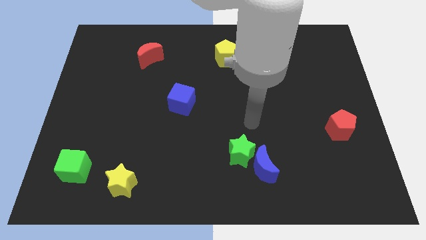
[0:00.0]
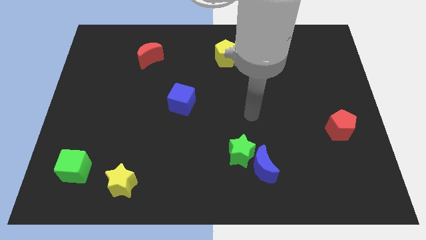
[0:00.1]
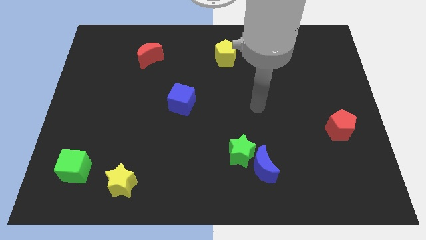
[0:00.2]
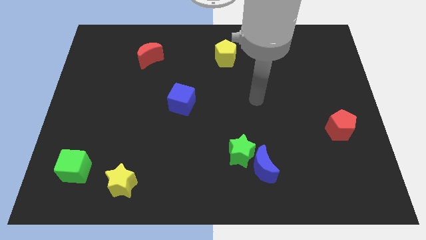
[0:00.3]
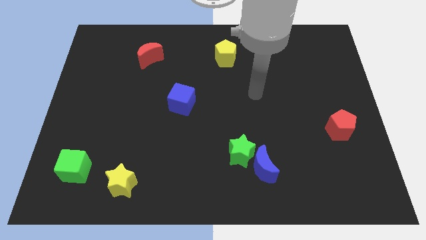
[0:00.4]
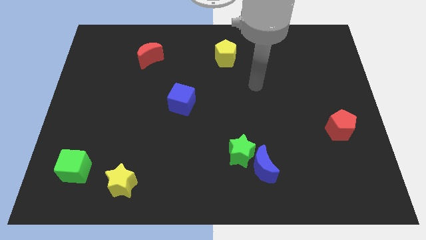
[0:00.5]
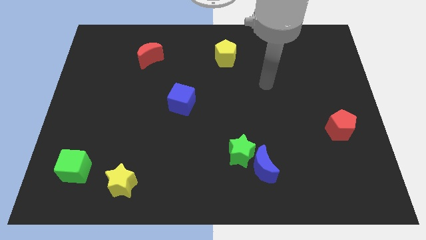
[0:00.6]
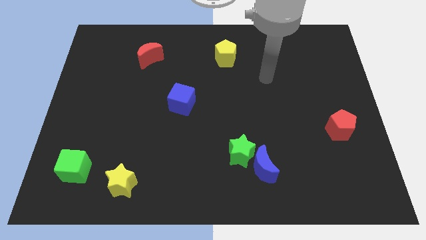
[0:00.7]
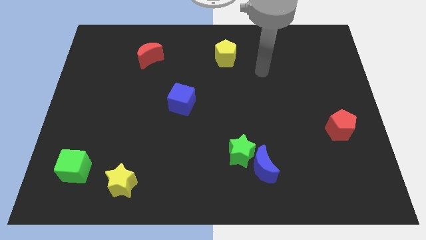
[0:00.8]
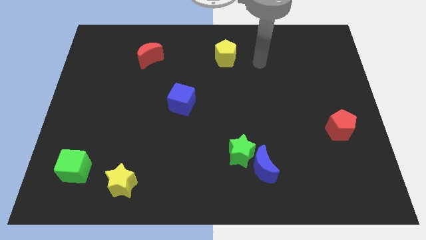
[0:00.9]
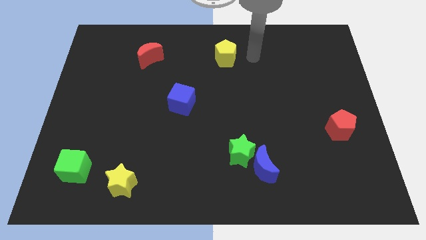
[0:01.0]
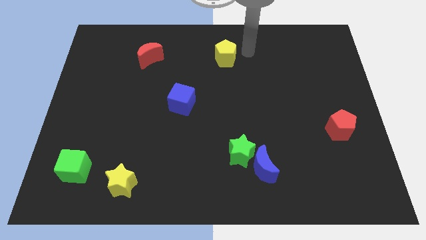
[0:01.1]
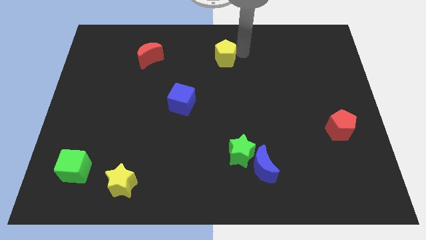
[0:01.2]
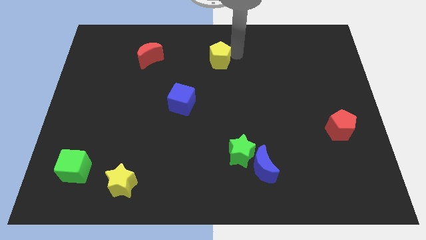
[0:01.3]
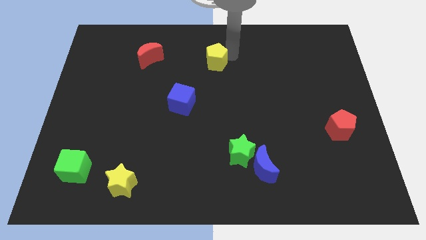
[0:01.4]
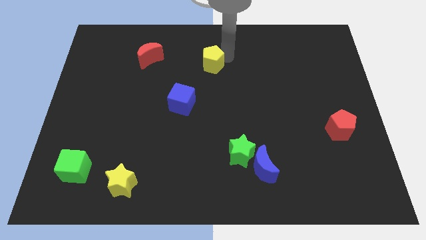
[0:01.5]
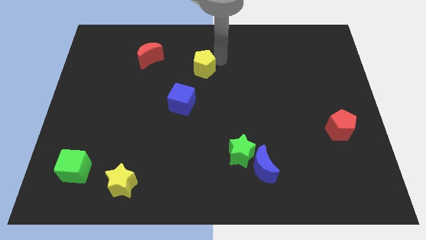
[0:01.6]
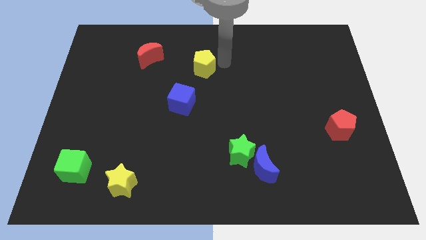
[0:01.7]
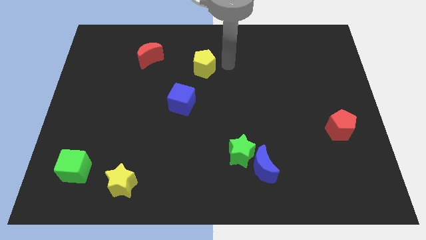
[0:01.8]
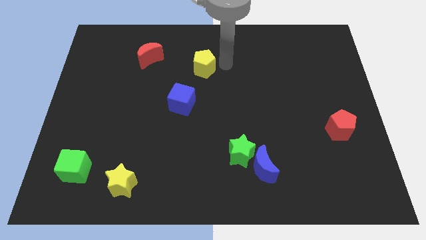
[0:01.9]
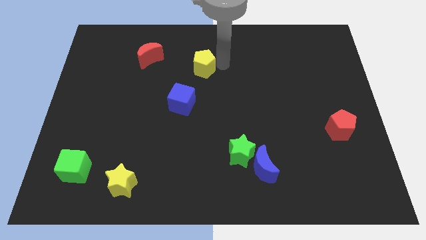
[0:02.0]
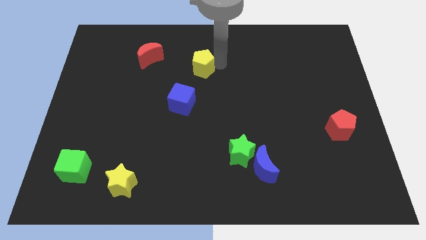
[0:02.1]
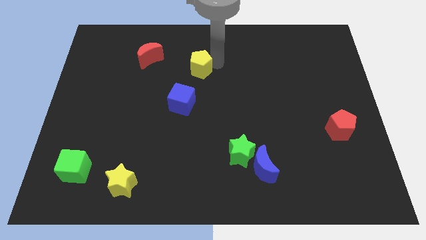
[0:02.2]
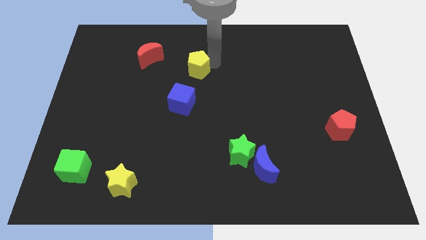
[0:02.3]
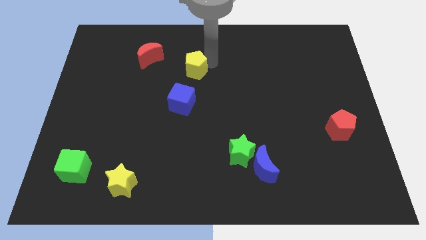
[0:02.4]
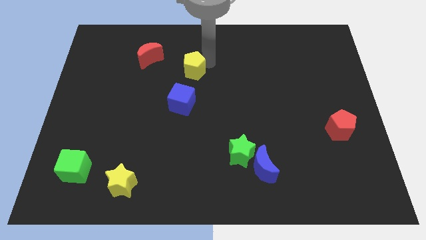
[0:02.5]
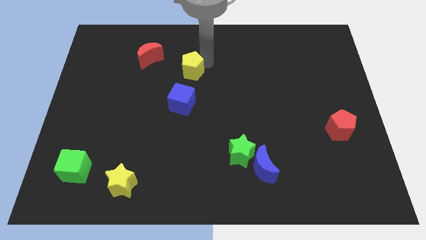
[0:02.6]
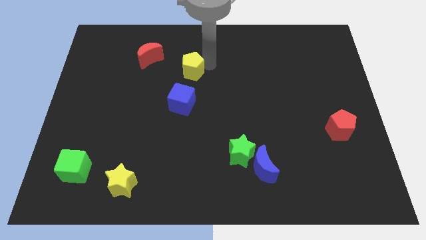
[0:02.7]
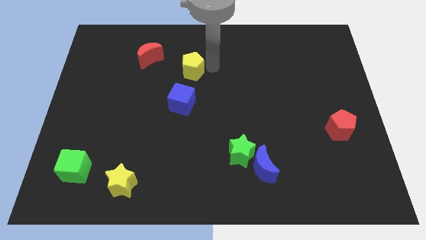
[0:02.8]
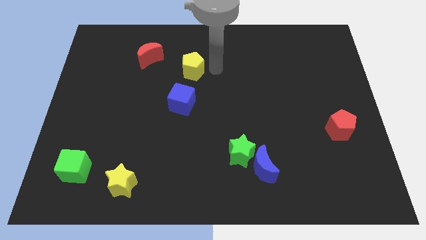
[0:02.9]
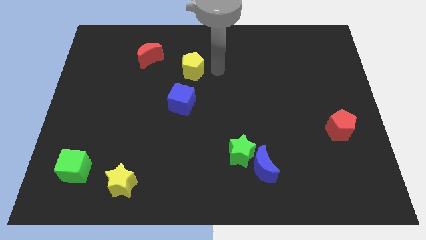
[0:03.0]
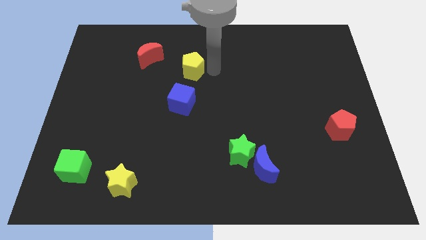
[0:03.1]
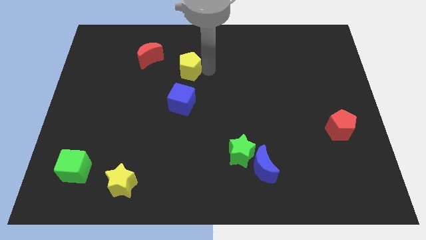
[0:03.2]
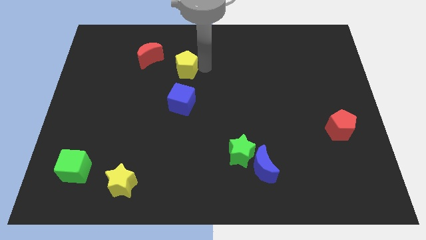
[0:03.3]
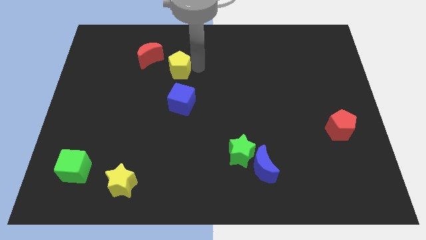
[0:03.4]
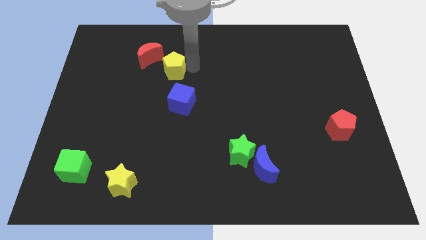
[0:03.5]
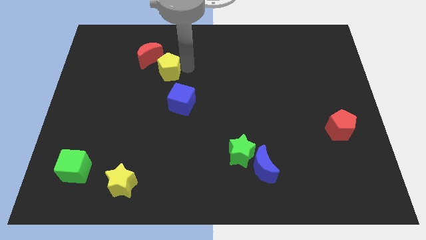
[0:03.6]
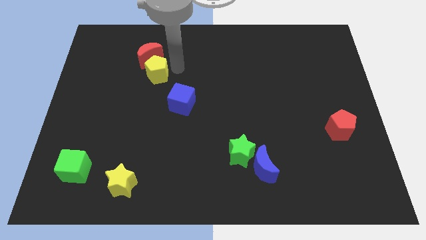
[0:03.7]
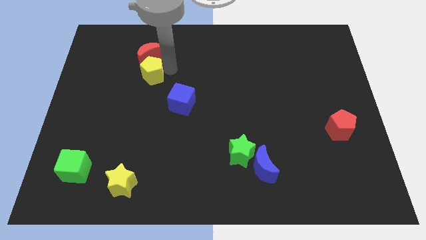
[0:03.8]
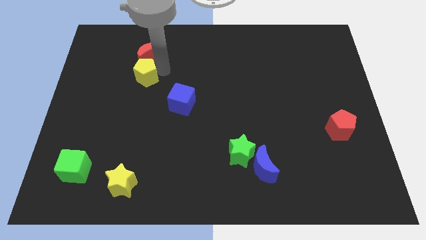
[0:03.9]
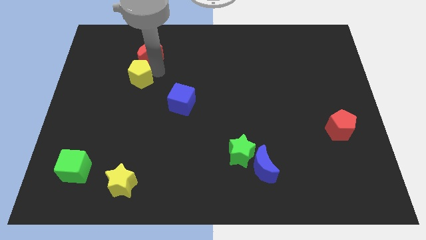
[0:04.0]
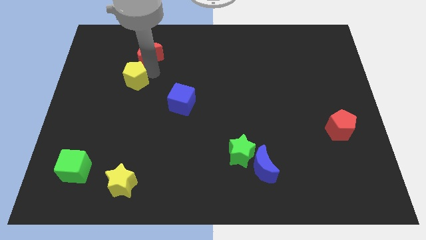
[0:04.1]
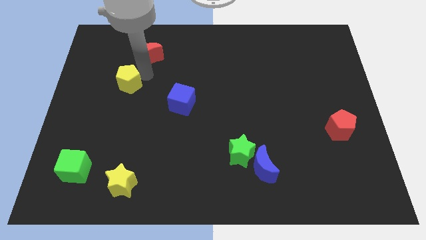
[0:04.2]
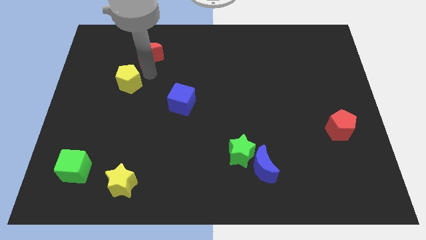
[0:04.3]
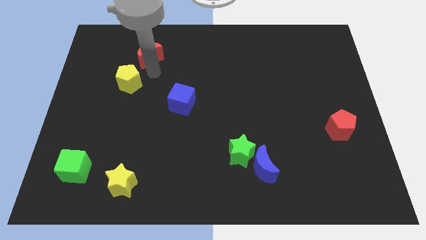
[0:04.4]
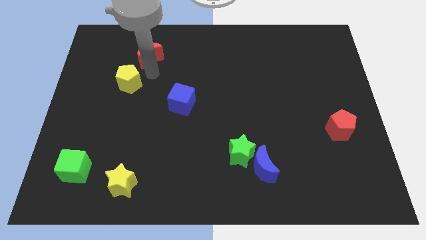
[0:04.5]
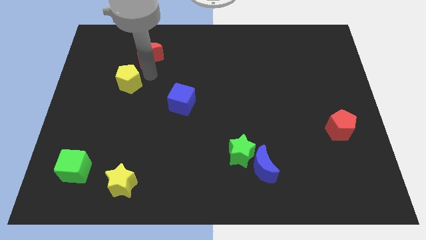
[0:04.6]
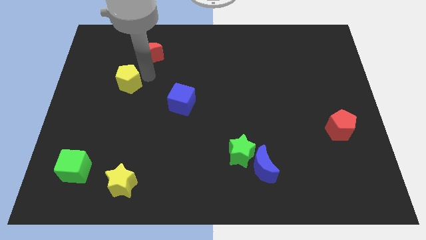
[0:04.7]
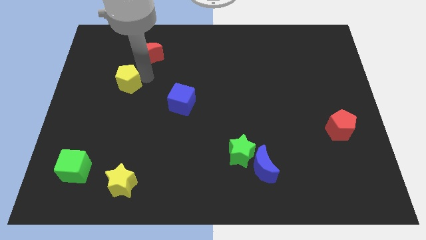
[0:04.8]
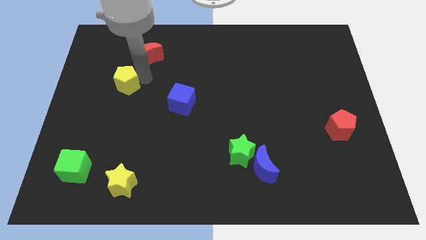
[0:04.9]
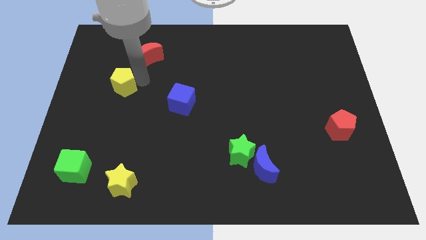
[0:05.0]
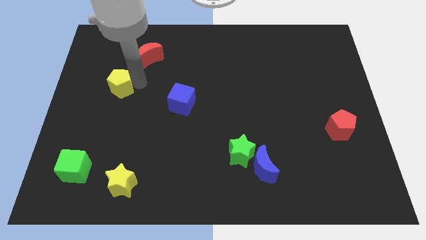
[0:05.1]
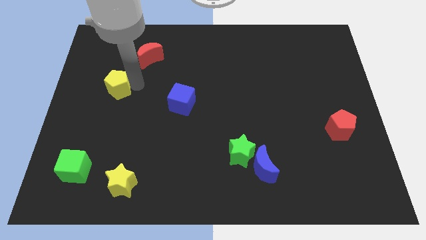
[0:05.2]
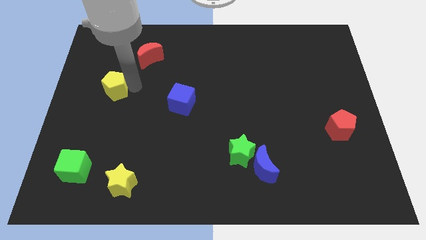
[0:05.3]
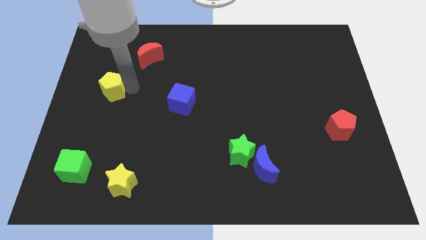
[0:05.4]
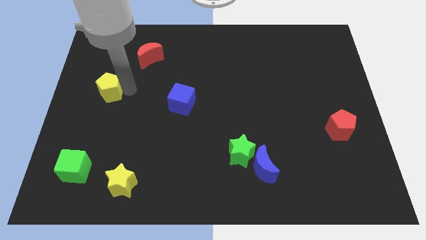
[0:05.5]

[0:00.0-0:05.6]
push the yellow pentagon to the left side
